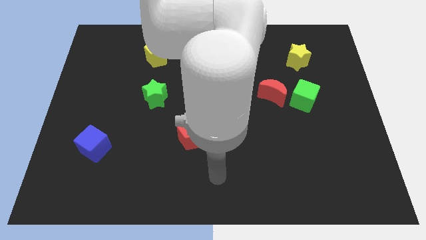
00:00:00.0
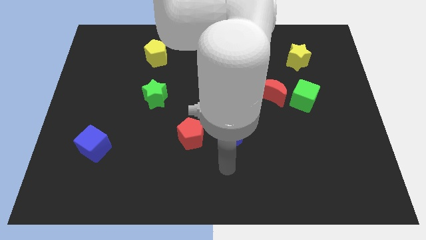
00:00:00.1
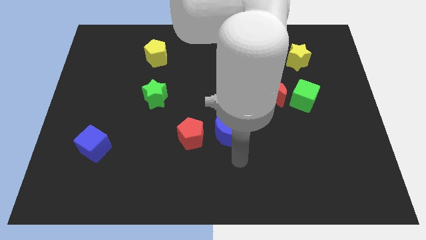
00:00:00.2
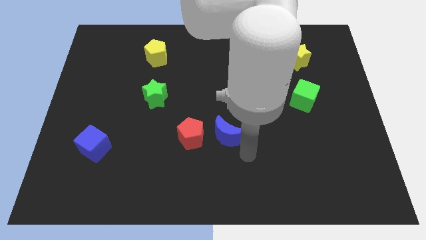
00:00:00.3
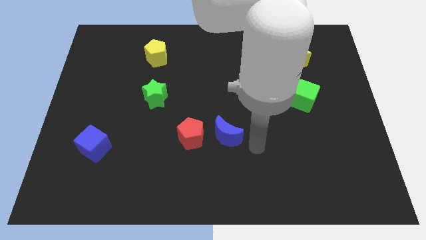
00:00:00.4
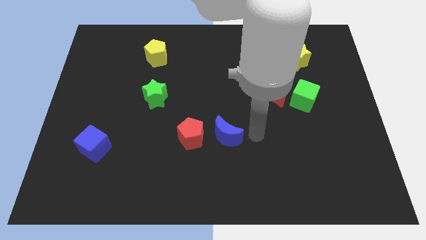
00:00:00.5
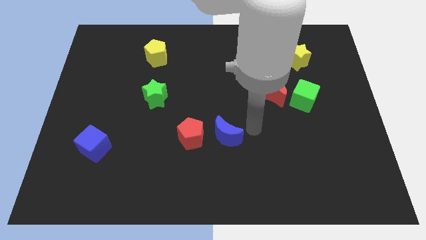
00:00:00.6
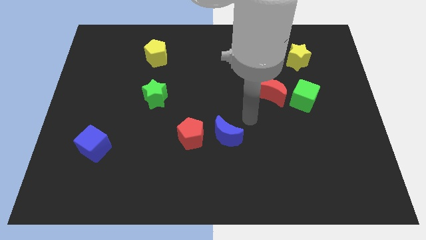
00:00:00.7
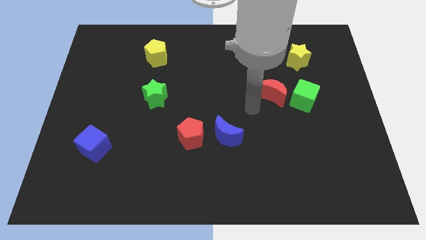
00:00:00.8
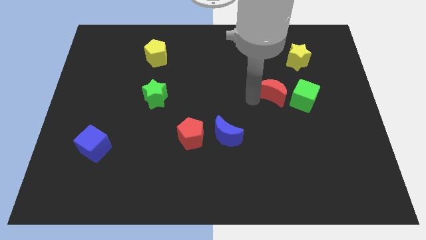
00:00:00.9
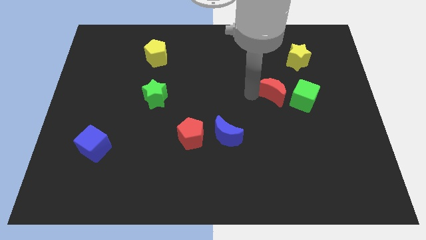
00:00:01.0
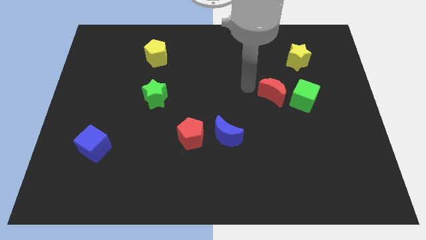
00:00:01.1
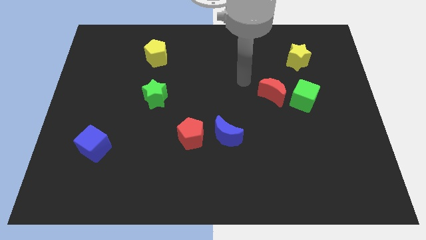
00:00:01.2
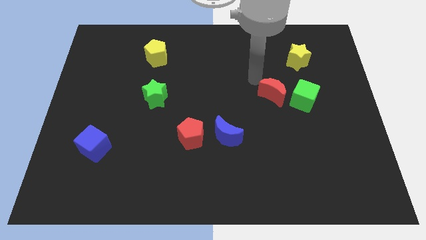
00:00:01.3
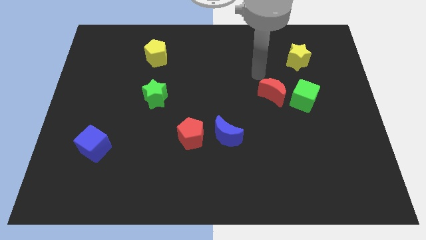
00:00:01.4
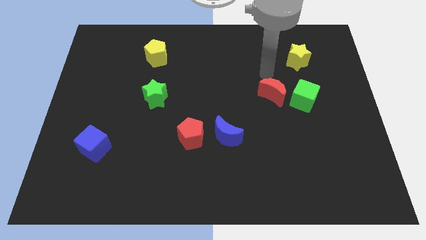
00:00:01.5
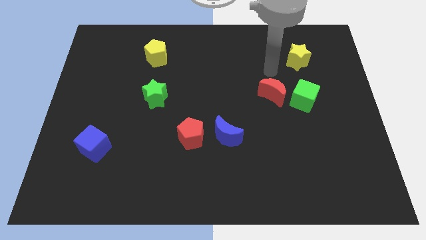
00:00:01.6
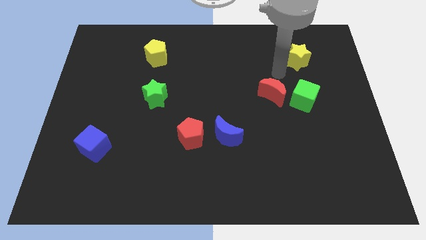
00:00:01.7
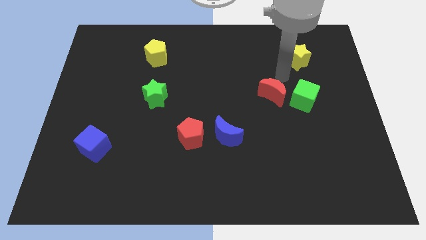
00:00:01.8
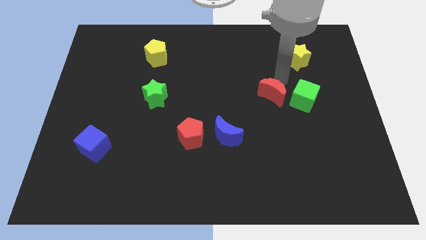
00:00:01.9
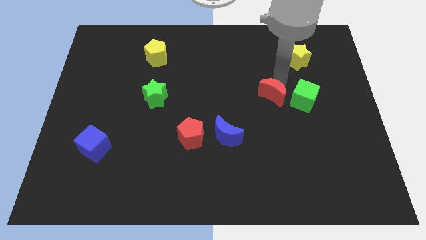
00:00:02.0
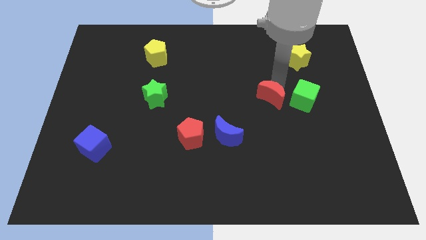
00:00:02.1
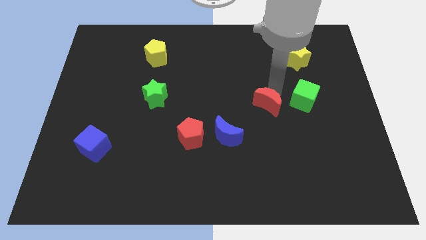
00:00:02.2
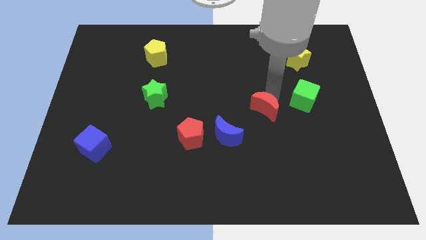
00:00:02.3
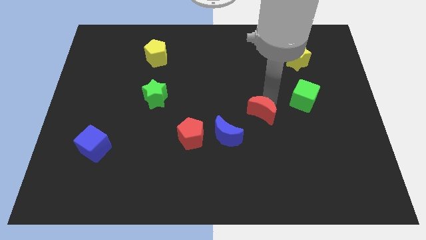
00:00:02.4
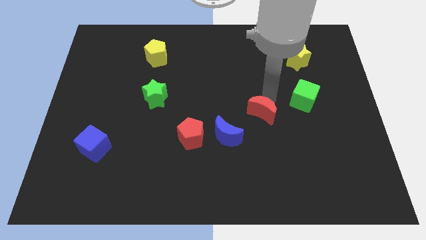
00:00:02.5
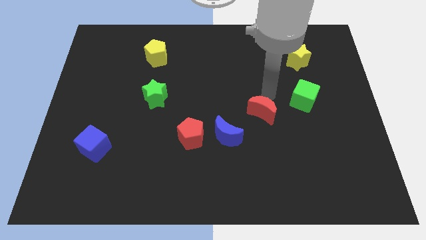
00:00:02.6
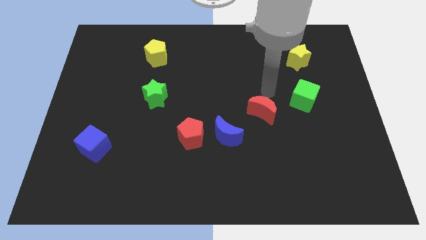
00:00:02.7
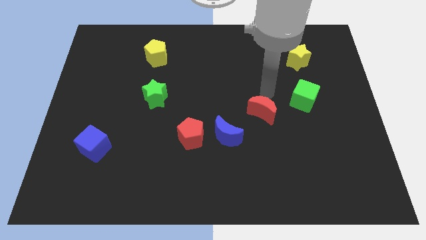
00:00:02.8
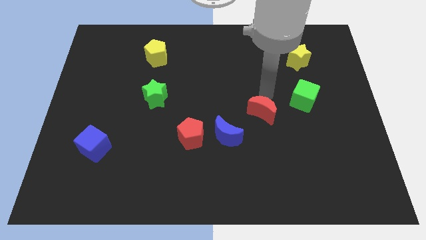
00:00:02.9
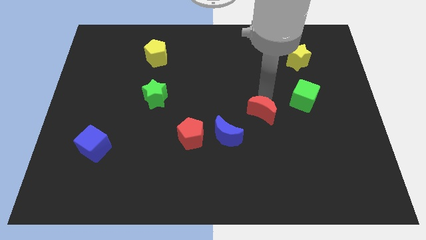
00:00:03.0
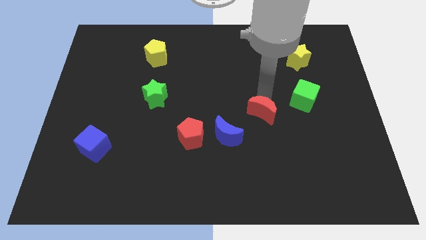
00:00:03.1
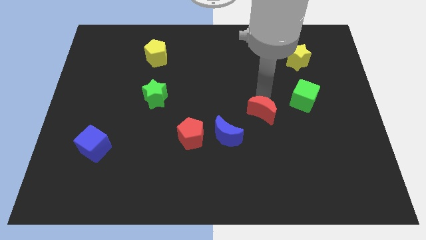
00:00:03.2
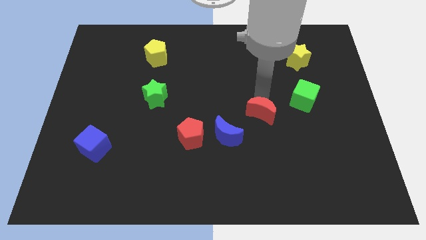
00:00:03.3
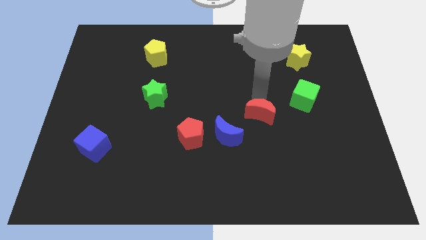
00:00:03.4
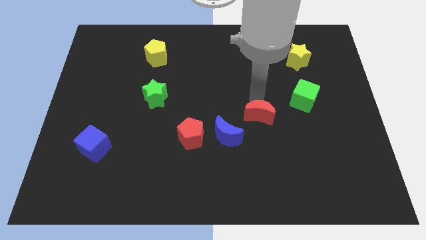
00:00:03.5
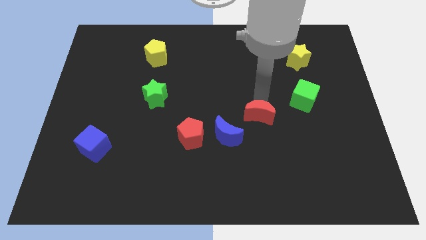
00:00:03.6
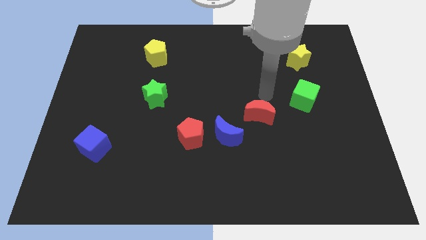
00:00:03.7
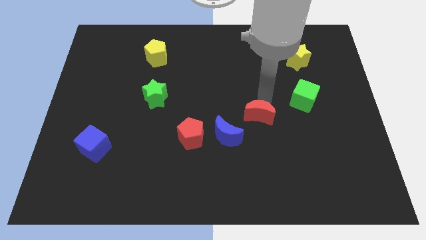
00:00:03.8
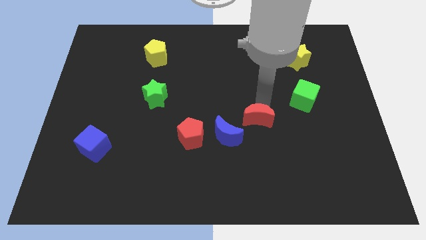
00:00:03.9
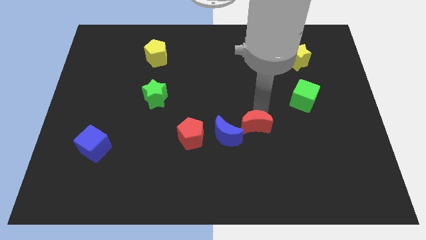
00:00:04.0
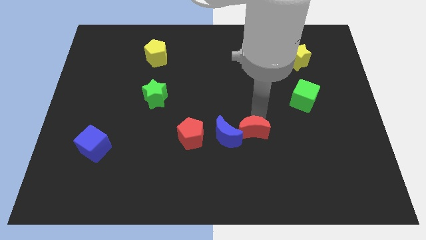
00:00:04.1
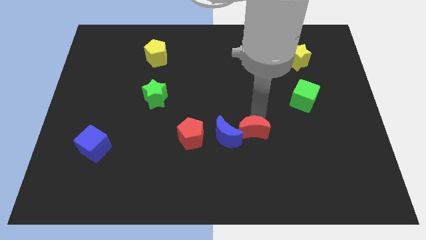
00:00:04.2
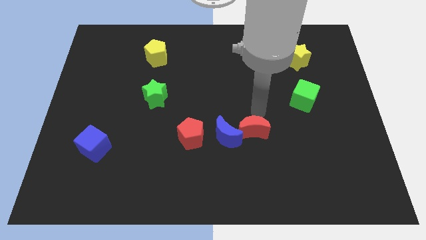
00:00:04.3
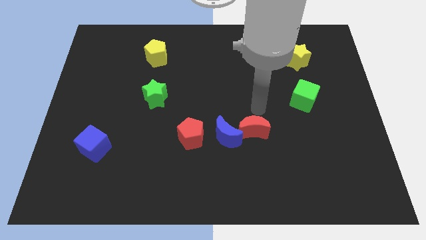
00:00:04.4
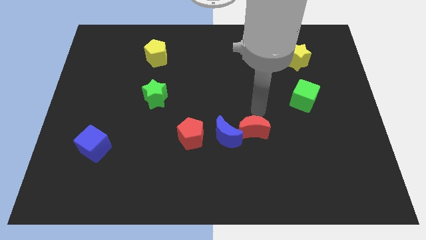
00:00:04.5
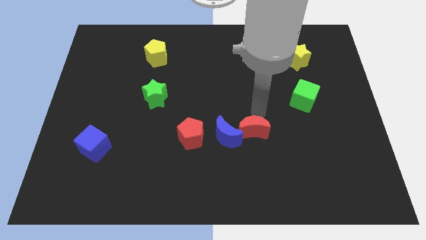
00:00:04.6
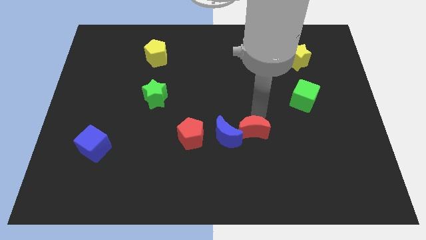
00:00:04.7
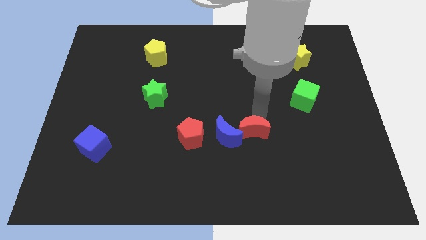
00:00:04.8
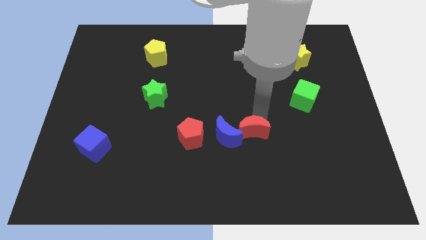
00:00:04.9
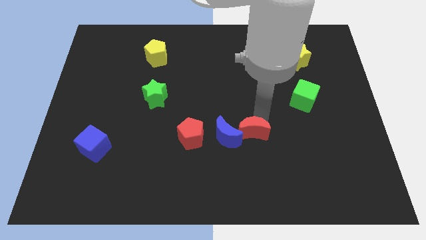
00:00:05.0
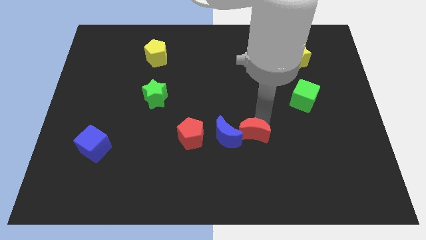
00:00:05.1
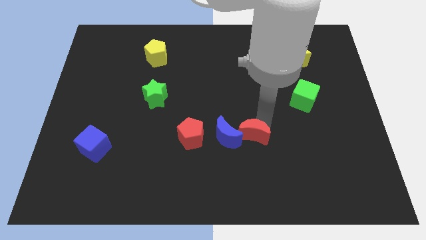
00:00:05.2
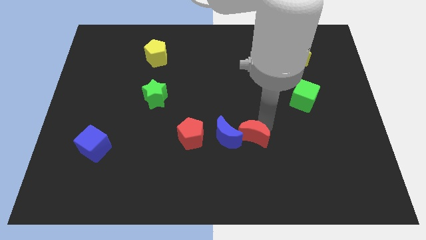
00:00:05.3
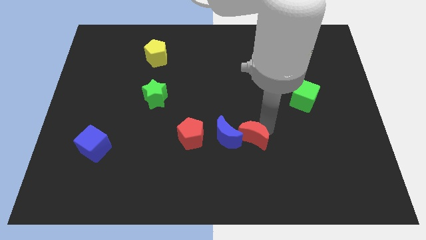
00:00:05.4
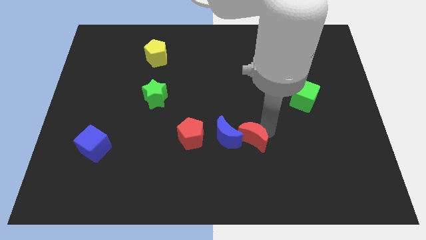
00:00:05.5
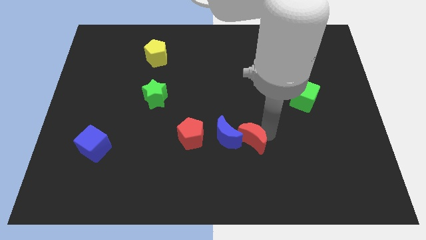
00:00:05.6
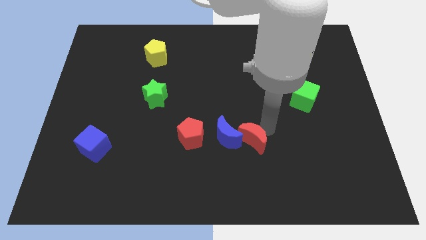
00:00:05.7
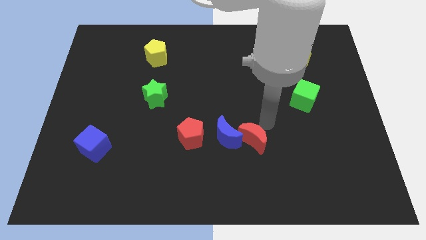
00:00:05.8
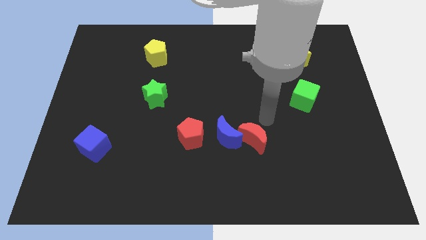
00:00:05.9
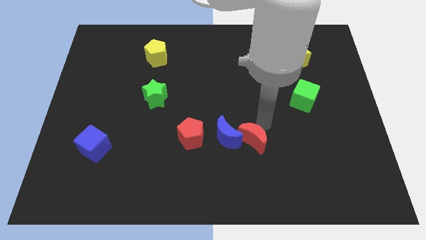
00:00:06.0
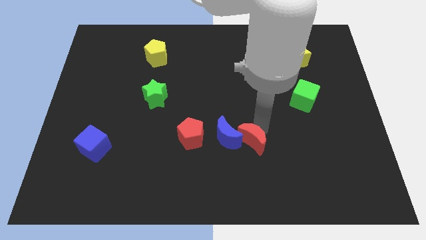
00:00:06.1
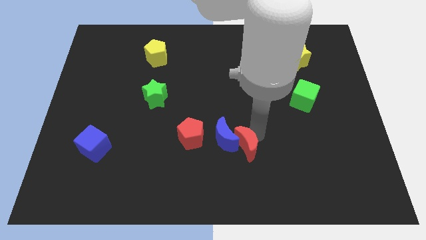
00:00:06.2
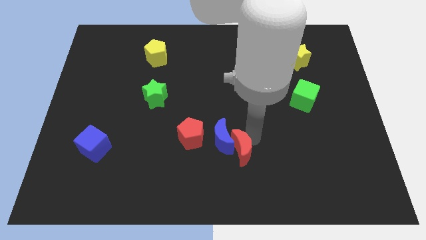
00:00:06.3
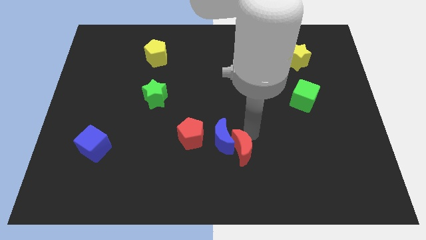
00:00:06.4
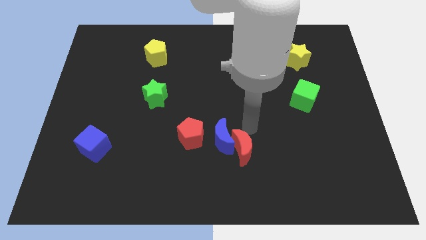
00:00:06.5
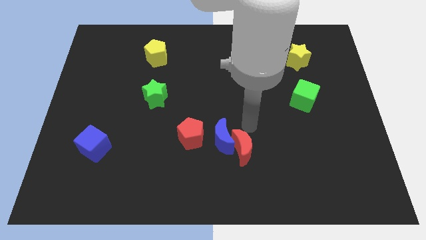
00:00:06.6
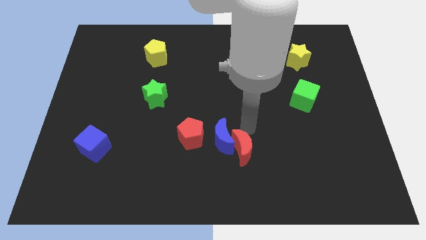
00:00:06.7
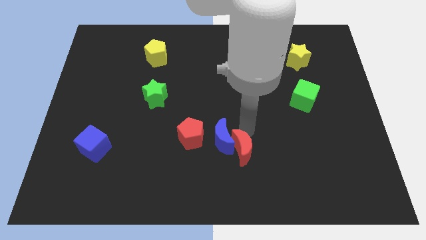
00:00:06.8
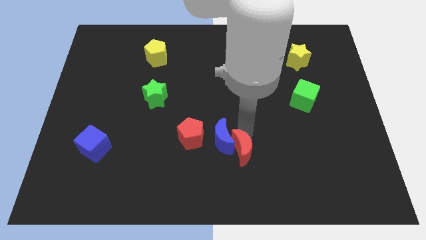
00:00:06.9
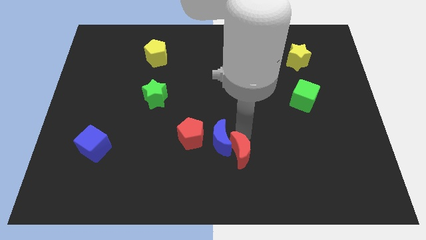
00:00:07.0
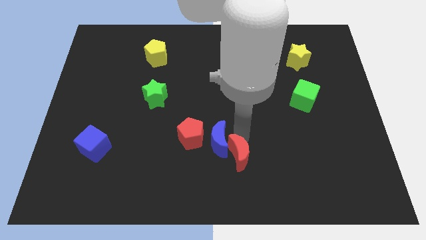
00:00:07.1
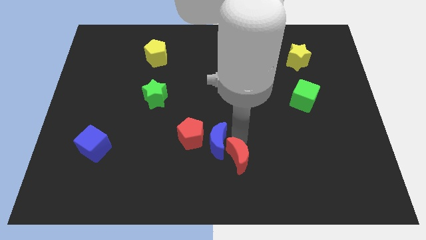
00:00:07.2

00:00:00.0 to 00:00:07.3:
put the red moon to the bottom
